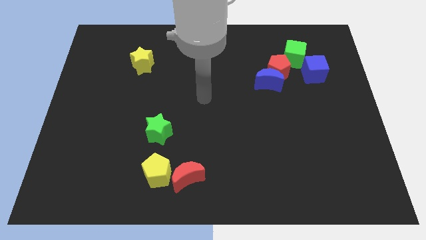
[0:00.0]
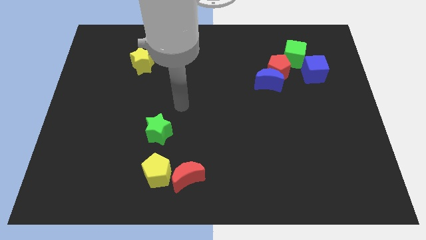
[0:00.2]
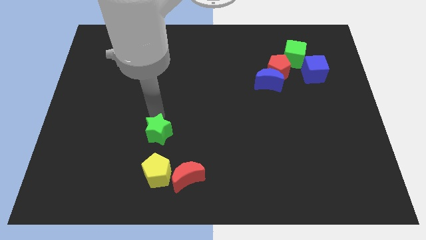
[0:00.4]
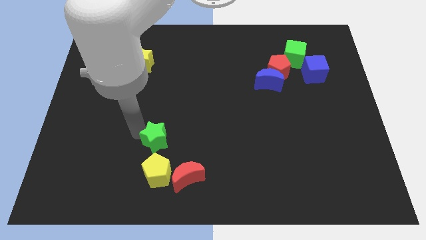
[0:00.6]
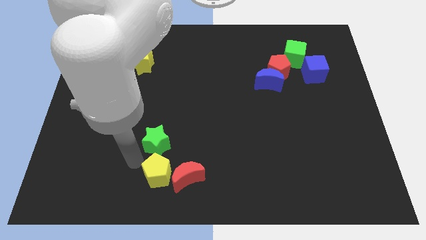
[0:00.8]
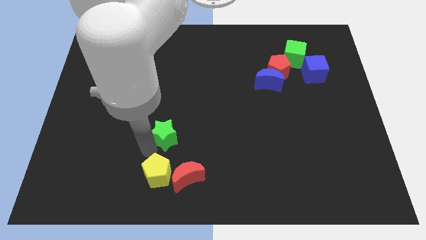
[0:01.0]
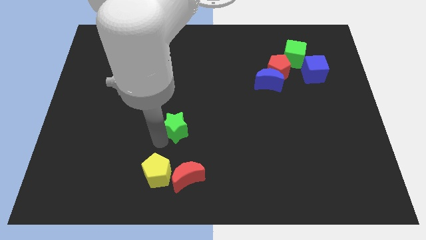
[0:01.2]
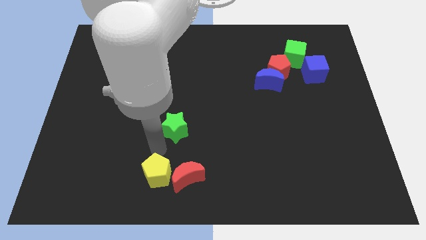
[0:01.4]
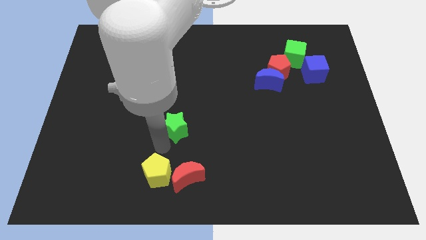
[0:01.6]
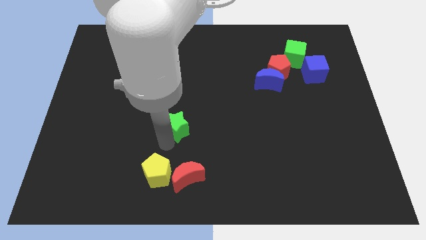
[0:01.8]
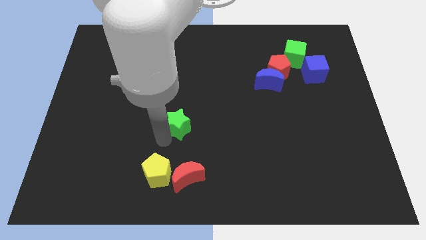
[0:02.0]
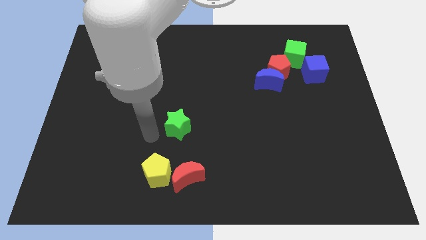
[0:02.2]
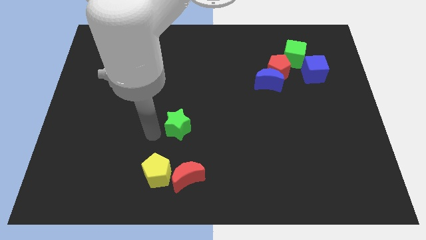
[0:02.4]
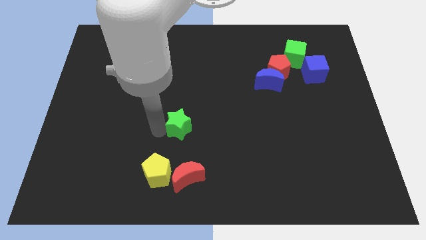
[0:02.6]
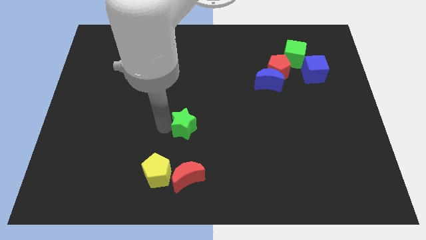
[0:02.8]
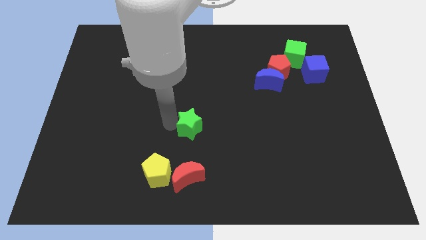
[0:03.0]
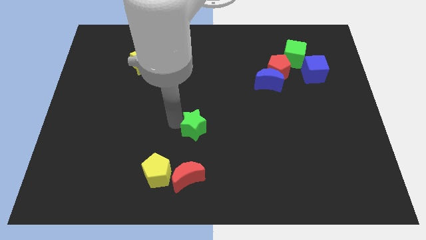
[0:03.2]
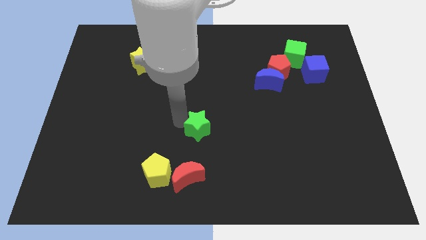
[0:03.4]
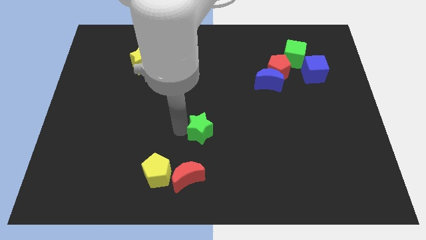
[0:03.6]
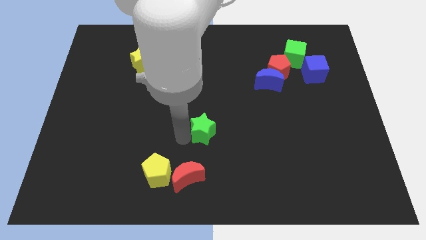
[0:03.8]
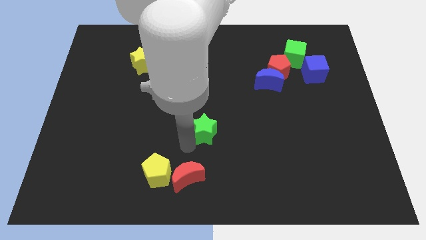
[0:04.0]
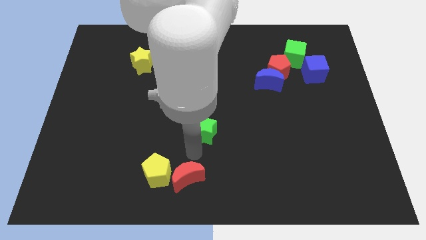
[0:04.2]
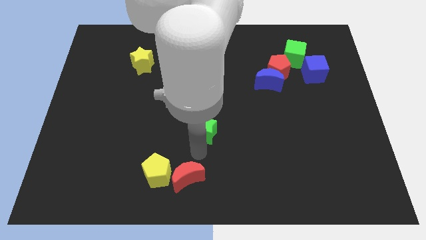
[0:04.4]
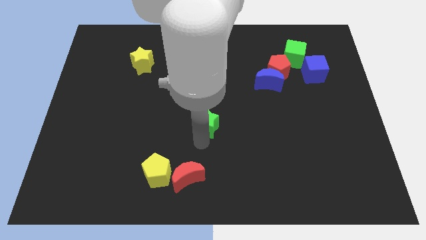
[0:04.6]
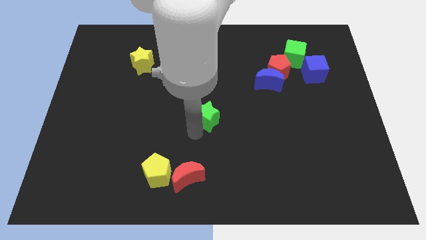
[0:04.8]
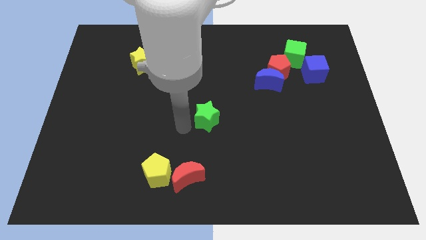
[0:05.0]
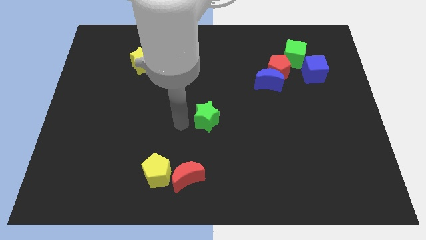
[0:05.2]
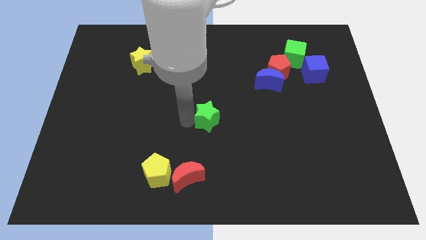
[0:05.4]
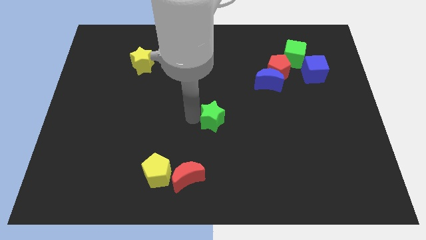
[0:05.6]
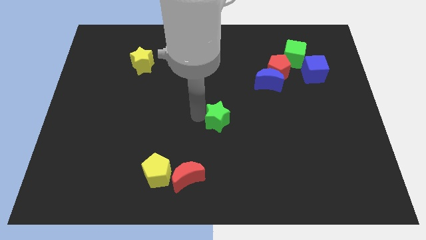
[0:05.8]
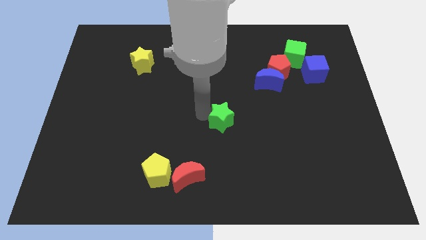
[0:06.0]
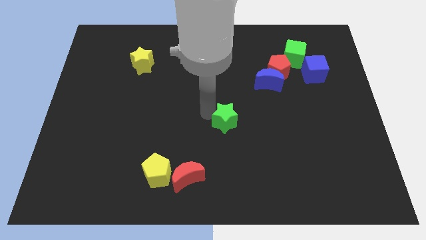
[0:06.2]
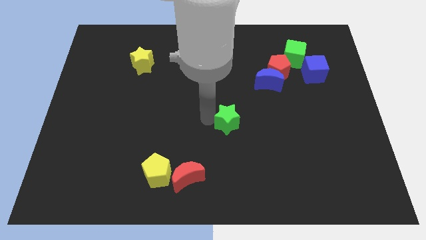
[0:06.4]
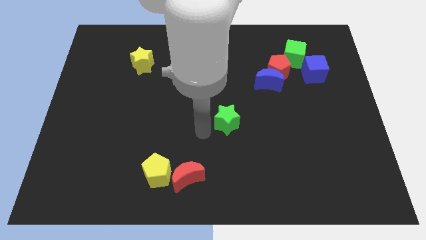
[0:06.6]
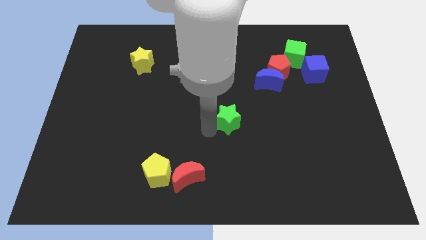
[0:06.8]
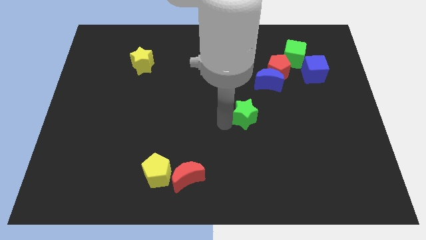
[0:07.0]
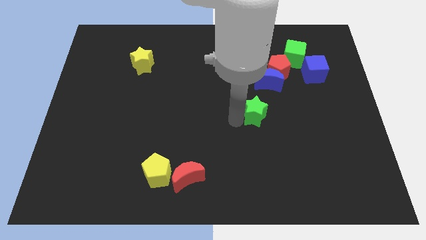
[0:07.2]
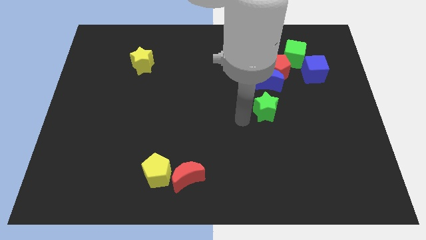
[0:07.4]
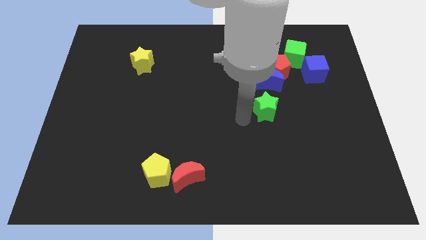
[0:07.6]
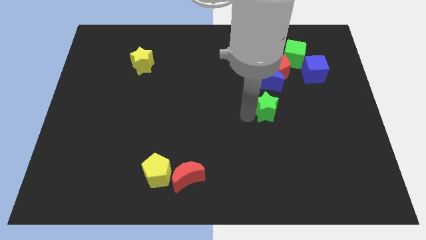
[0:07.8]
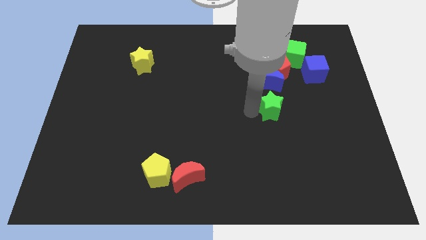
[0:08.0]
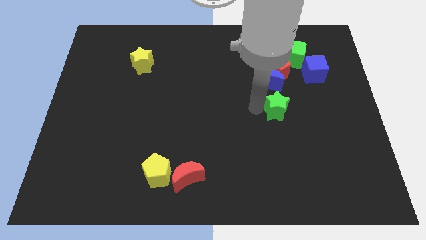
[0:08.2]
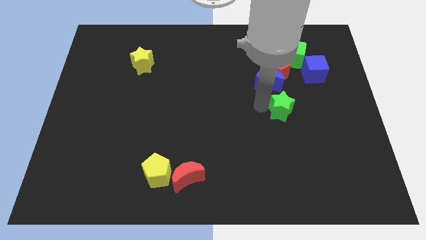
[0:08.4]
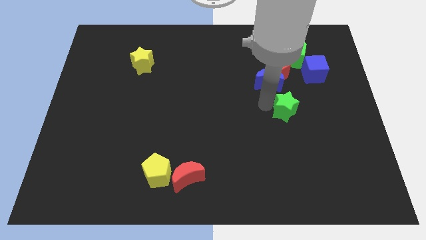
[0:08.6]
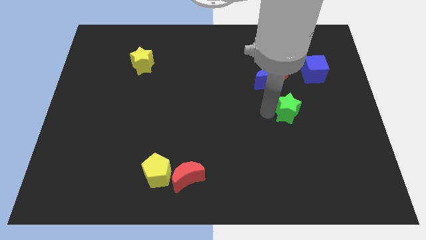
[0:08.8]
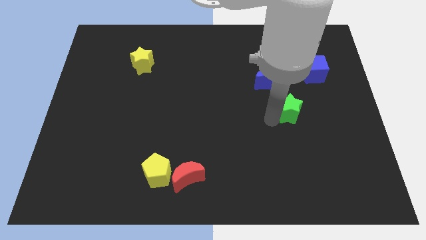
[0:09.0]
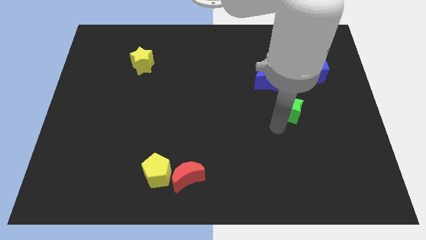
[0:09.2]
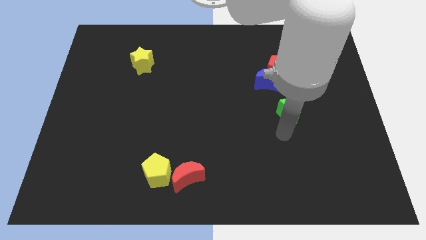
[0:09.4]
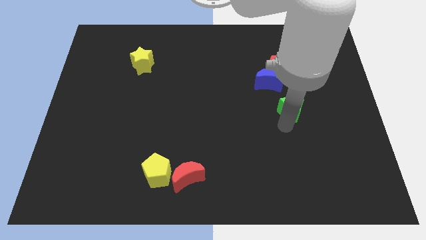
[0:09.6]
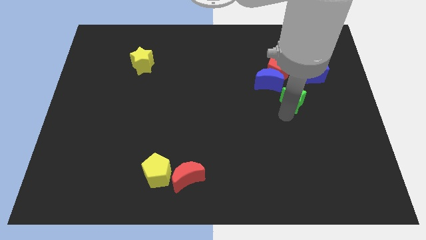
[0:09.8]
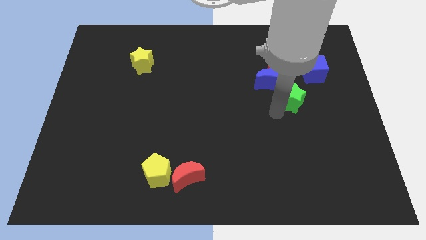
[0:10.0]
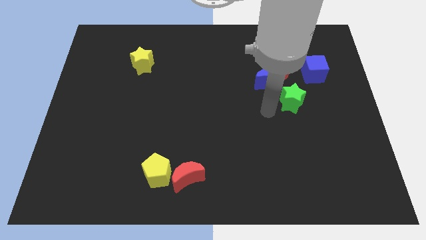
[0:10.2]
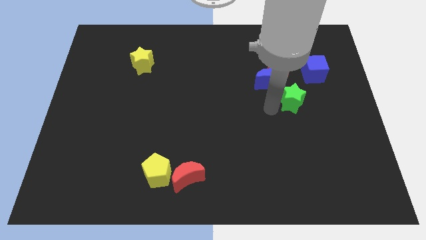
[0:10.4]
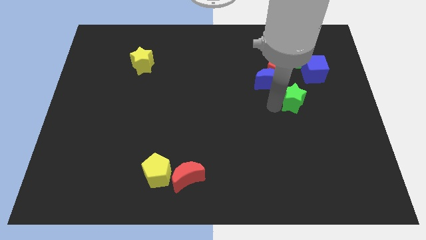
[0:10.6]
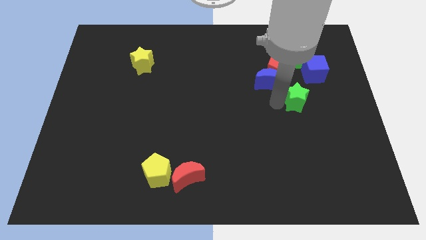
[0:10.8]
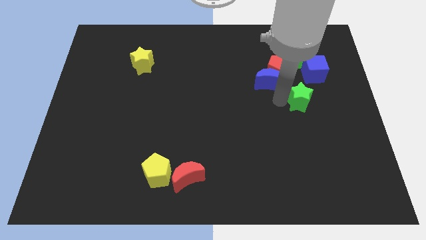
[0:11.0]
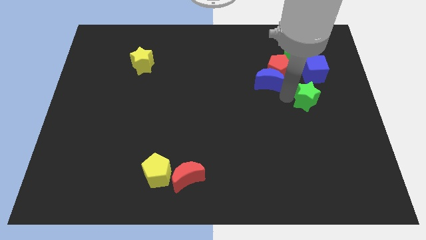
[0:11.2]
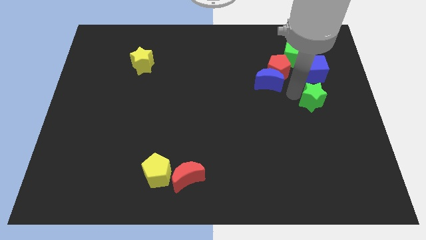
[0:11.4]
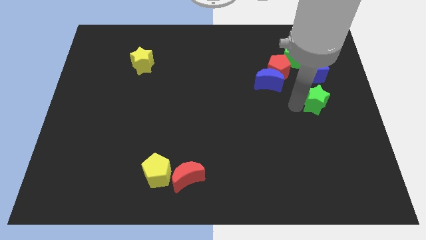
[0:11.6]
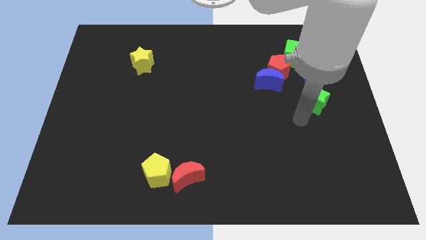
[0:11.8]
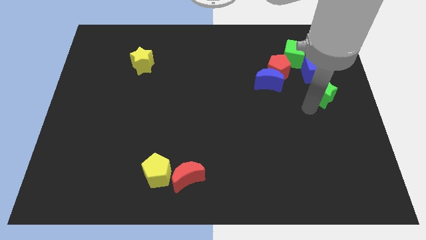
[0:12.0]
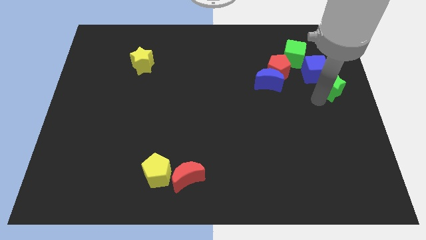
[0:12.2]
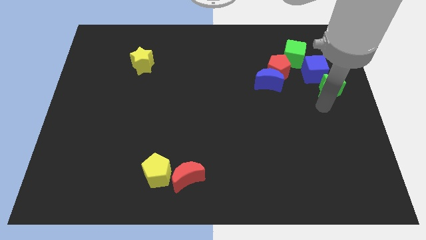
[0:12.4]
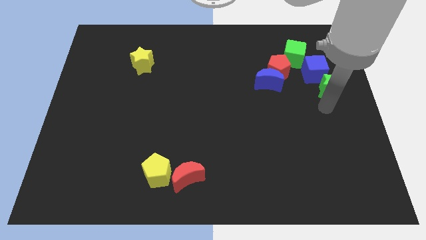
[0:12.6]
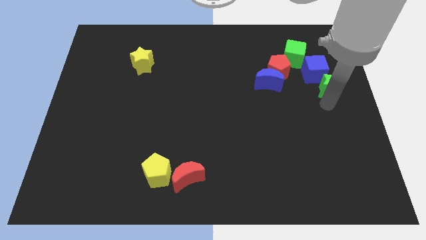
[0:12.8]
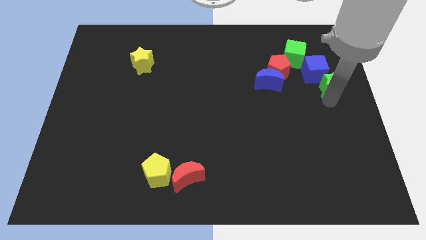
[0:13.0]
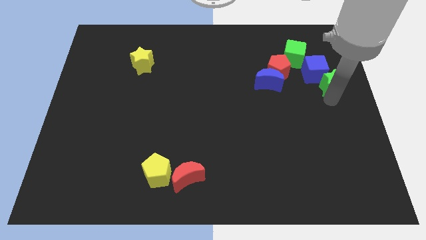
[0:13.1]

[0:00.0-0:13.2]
move the green star just right of the red pentagon

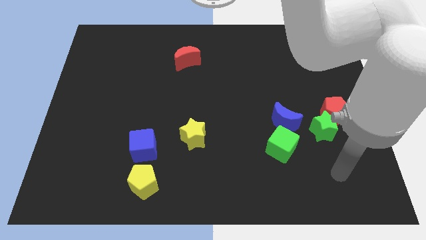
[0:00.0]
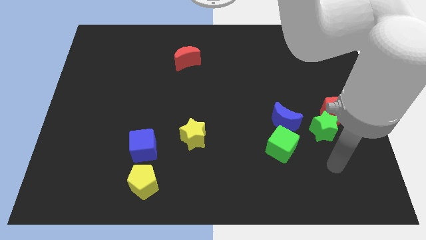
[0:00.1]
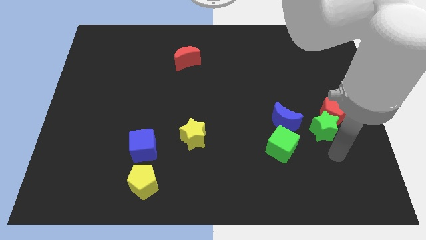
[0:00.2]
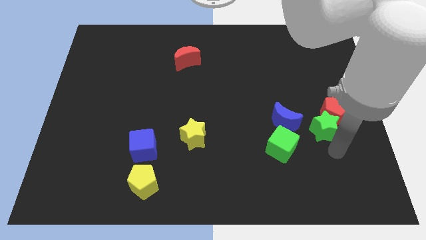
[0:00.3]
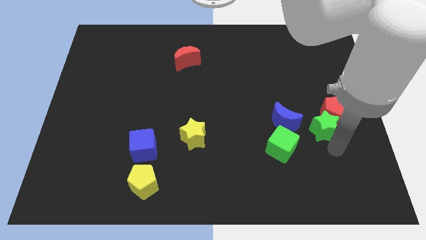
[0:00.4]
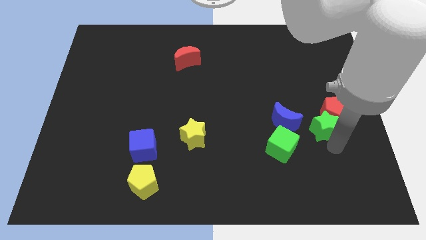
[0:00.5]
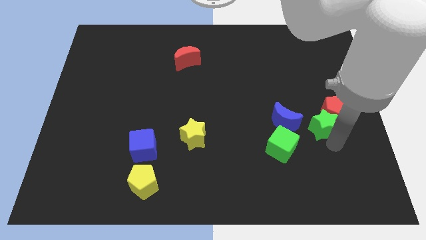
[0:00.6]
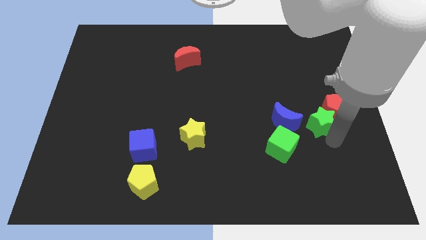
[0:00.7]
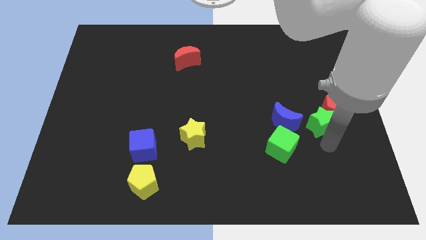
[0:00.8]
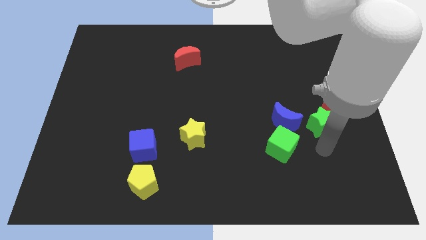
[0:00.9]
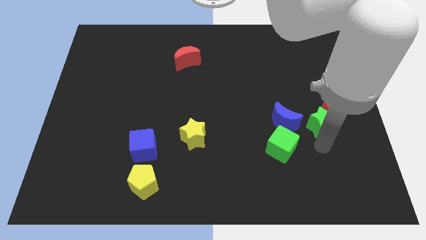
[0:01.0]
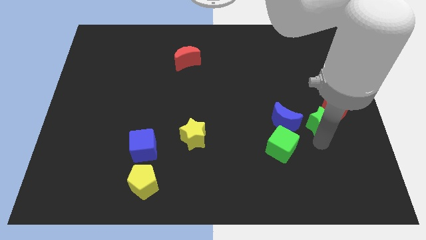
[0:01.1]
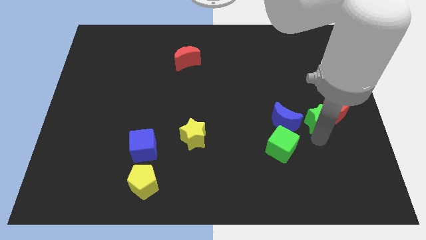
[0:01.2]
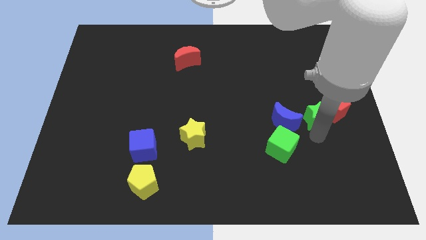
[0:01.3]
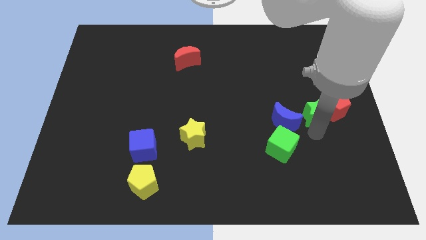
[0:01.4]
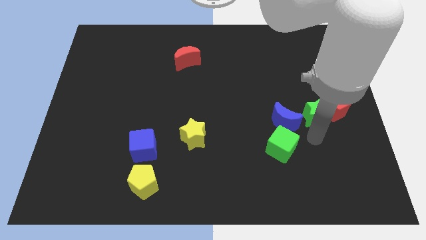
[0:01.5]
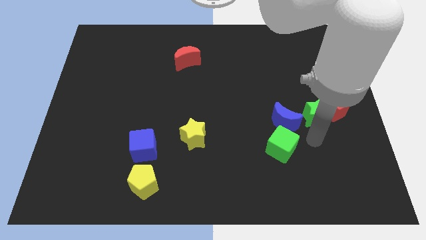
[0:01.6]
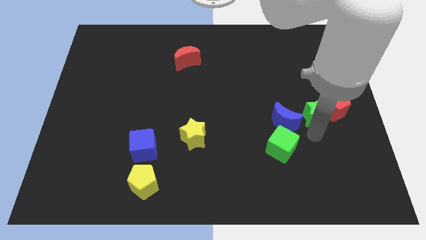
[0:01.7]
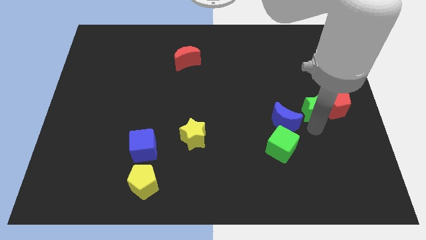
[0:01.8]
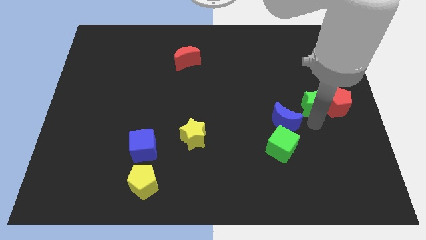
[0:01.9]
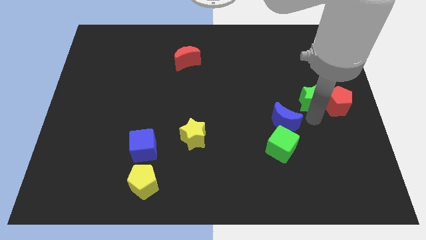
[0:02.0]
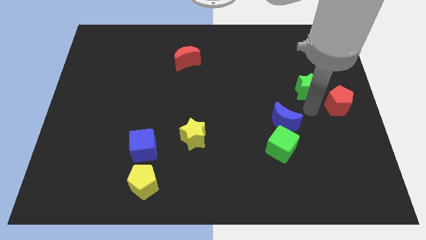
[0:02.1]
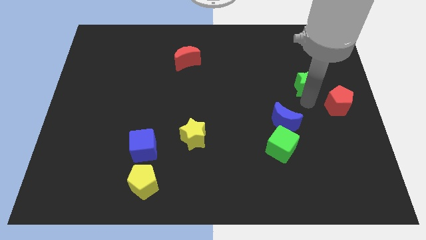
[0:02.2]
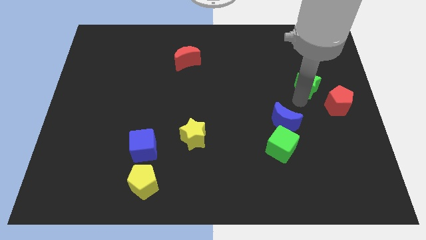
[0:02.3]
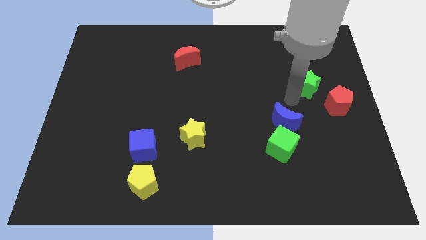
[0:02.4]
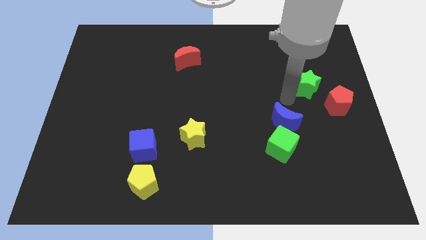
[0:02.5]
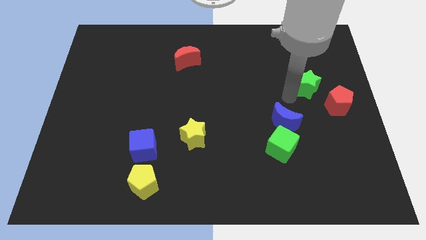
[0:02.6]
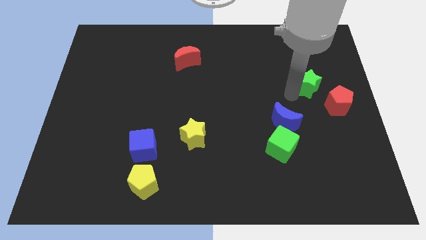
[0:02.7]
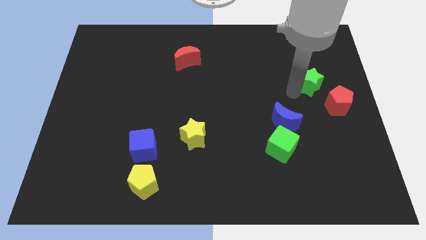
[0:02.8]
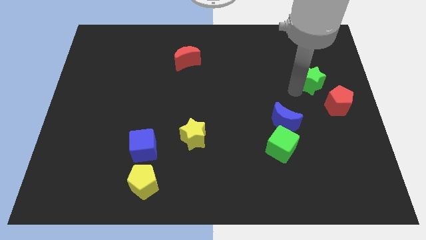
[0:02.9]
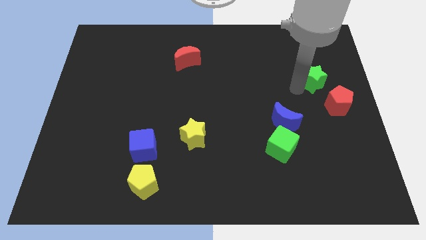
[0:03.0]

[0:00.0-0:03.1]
put the green star above the red pentagon
